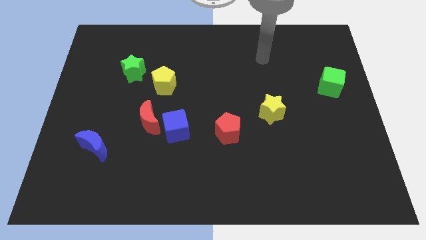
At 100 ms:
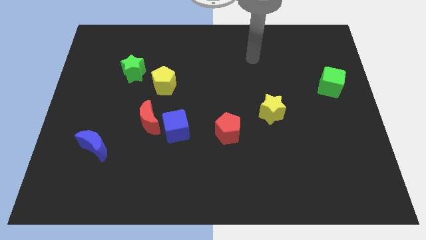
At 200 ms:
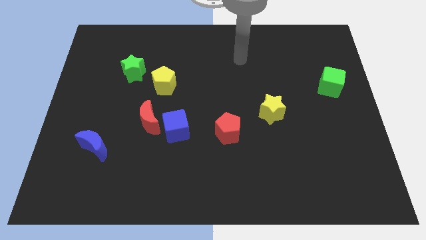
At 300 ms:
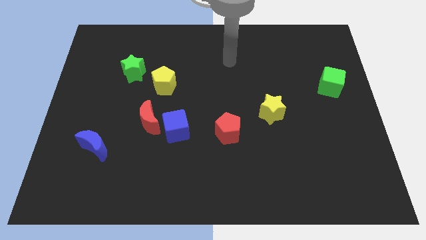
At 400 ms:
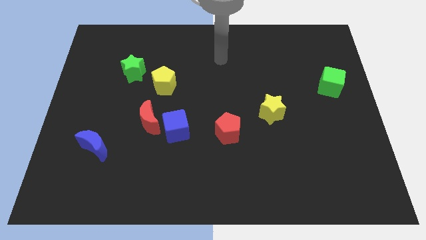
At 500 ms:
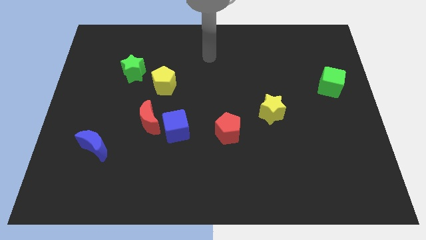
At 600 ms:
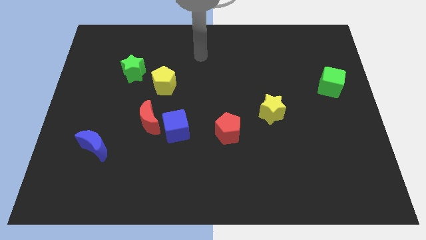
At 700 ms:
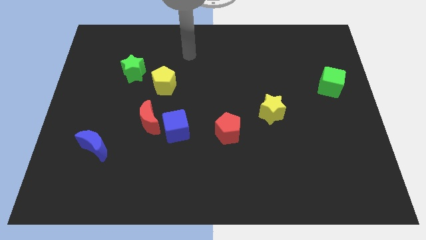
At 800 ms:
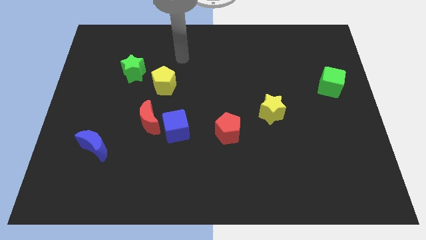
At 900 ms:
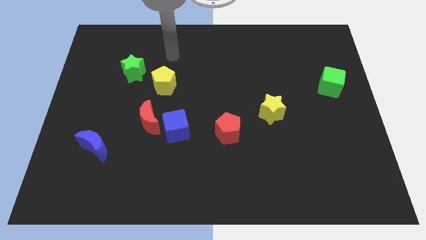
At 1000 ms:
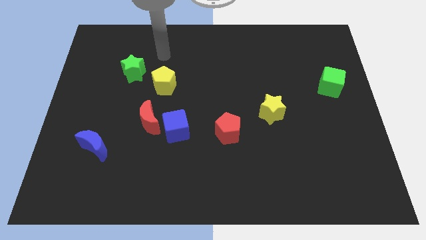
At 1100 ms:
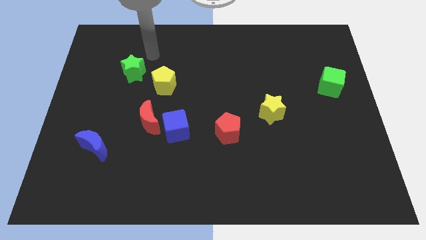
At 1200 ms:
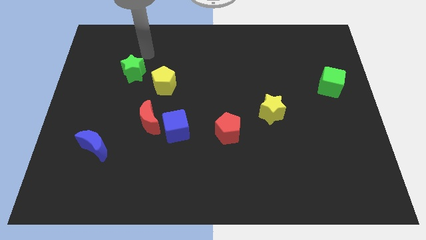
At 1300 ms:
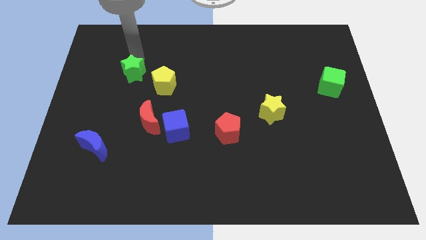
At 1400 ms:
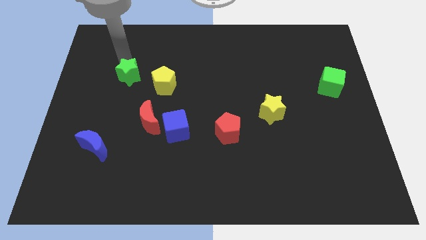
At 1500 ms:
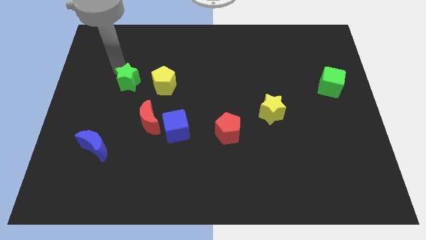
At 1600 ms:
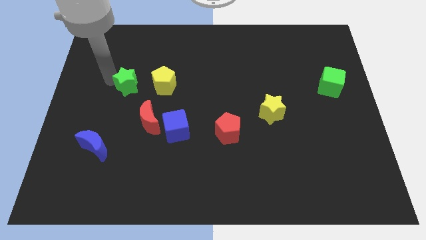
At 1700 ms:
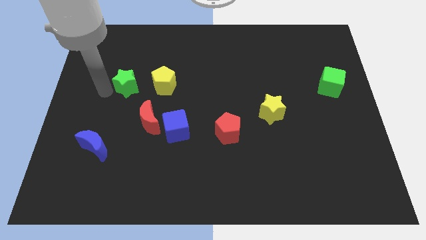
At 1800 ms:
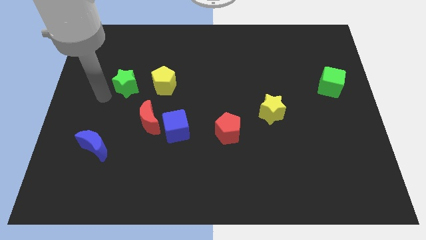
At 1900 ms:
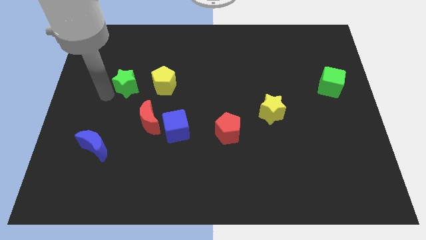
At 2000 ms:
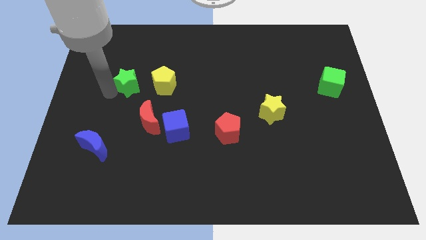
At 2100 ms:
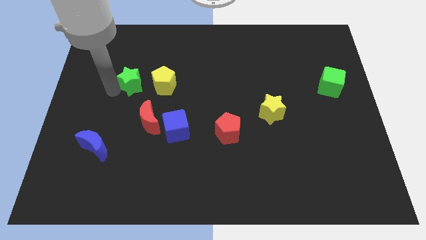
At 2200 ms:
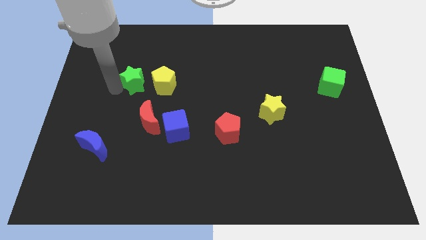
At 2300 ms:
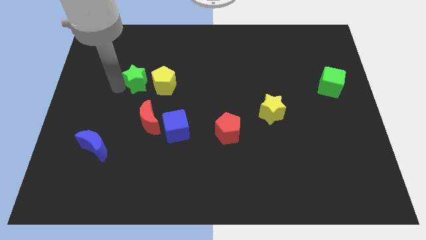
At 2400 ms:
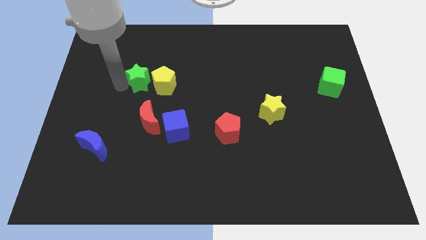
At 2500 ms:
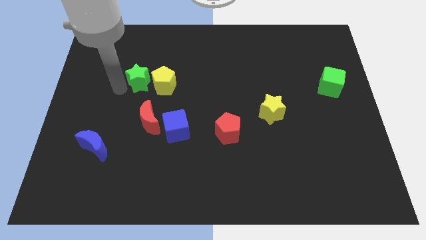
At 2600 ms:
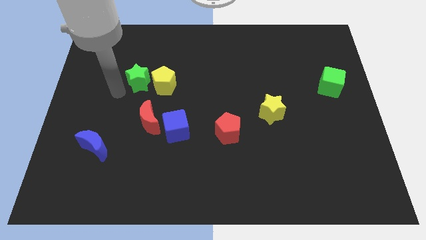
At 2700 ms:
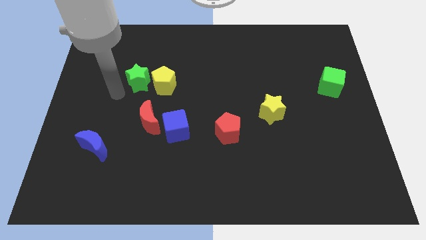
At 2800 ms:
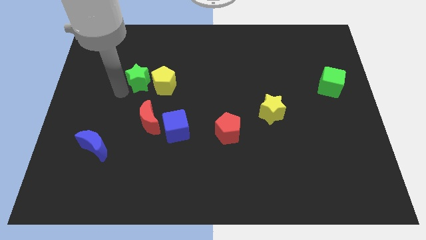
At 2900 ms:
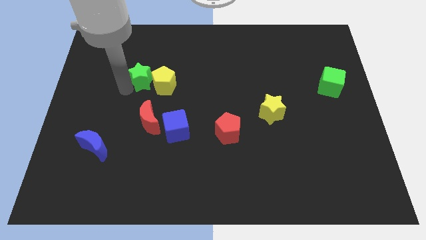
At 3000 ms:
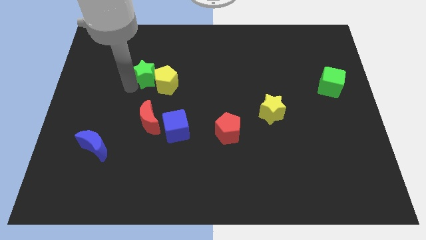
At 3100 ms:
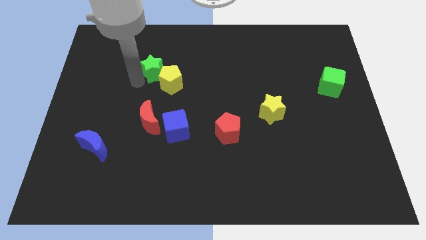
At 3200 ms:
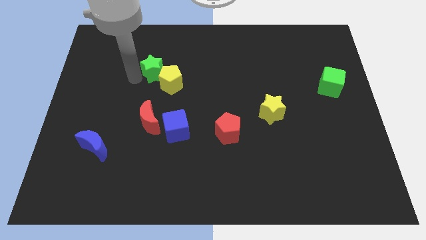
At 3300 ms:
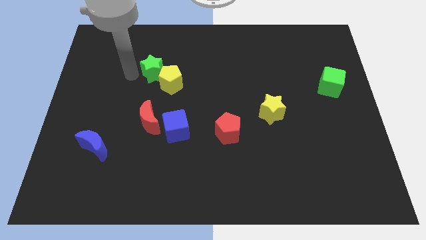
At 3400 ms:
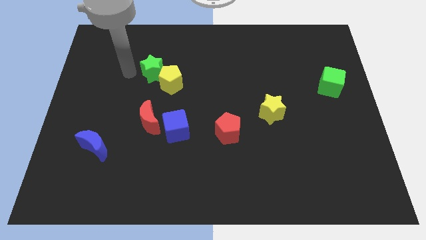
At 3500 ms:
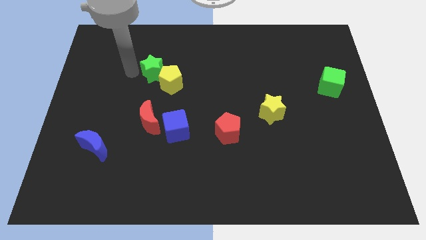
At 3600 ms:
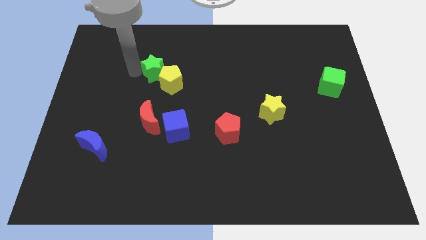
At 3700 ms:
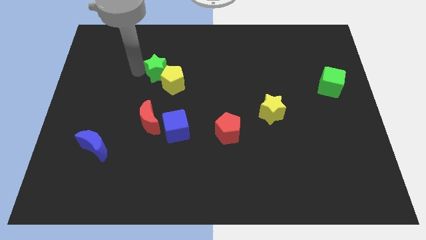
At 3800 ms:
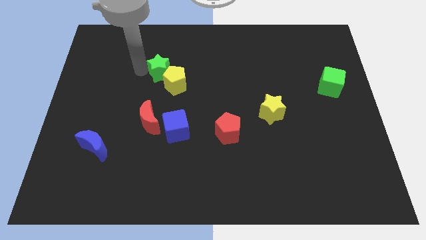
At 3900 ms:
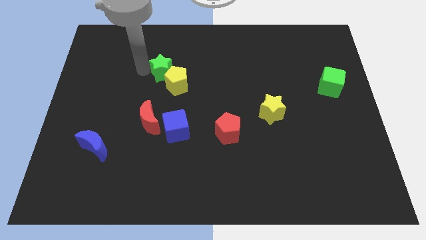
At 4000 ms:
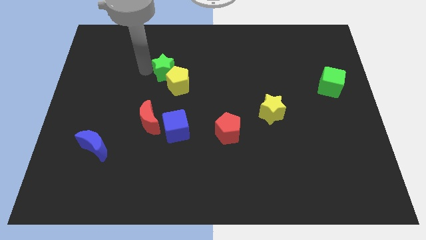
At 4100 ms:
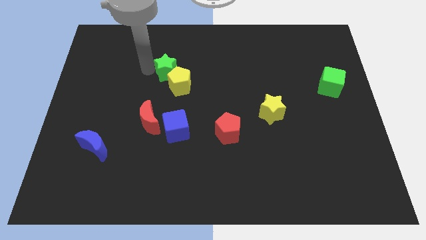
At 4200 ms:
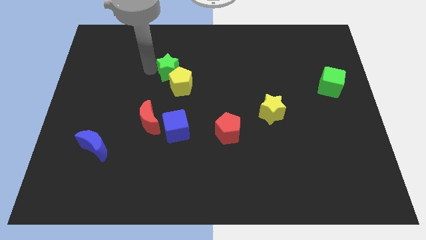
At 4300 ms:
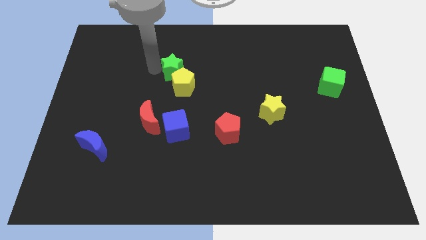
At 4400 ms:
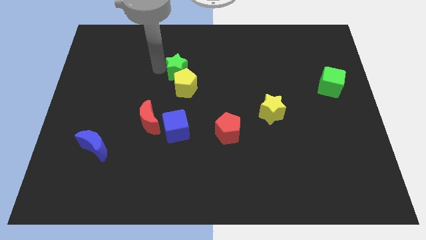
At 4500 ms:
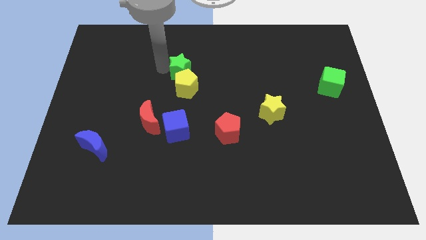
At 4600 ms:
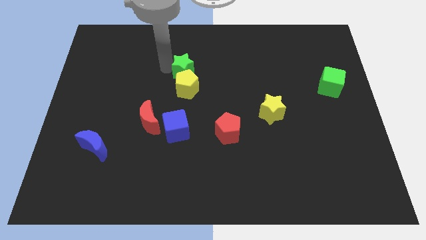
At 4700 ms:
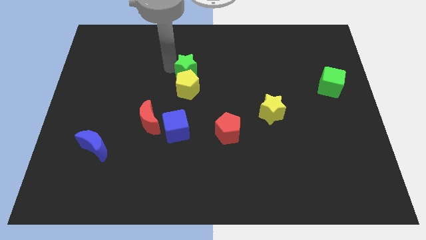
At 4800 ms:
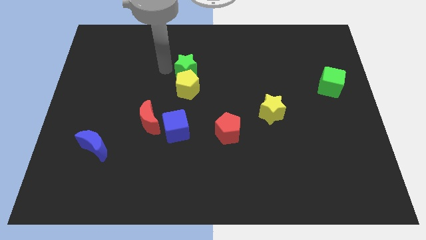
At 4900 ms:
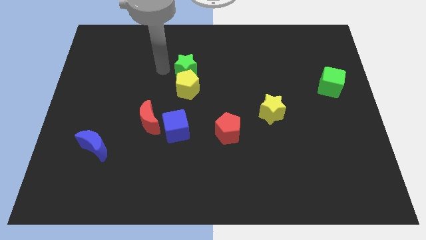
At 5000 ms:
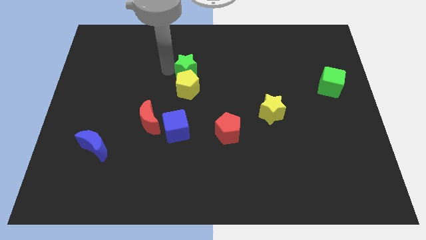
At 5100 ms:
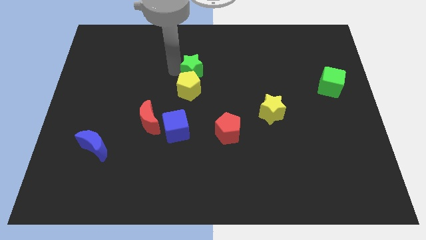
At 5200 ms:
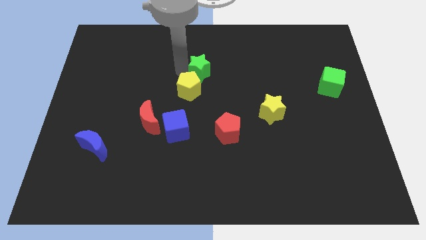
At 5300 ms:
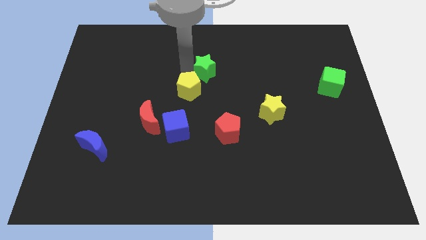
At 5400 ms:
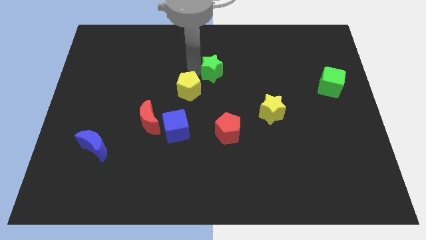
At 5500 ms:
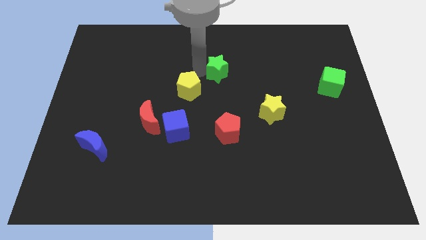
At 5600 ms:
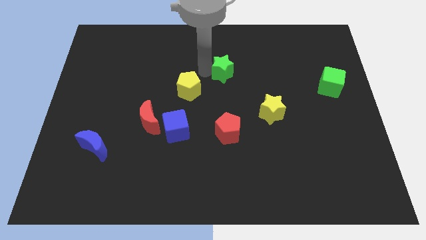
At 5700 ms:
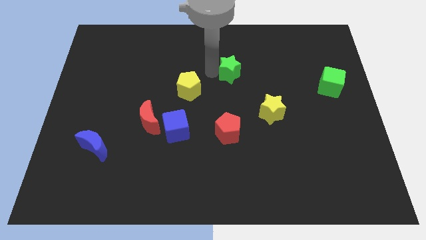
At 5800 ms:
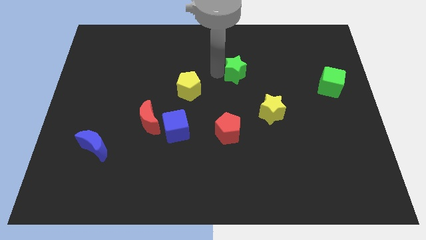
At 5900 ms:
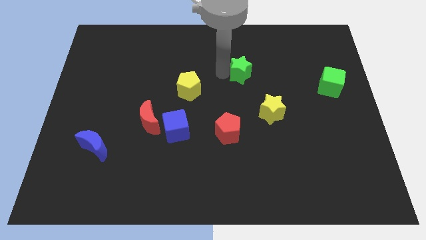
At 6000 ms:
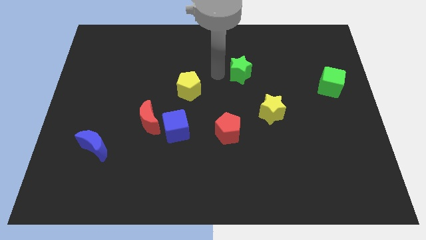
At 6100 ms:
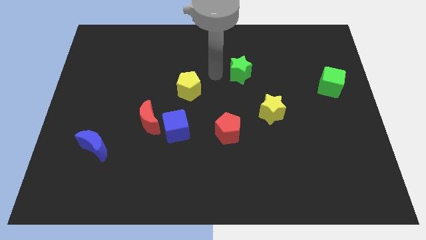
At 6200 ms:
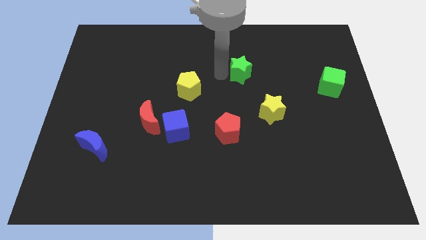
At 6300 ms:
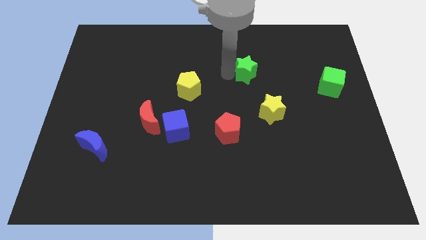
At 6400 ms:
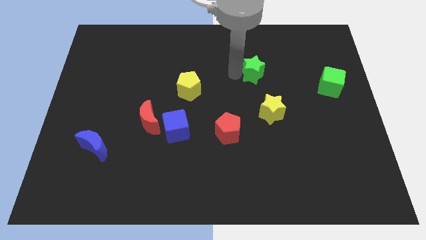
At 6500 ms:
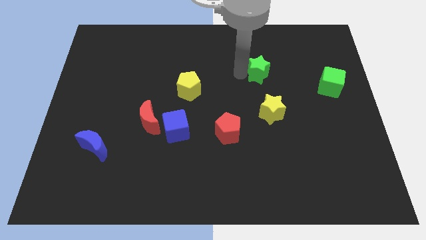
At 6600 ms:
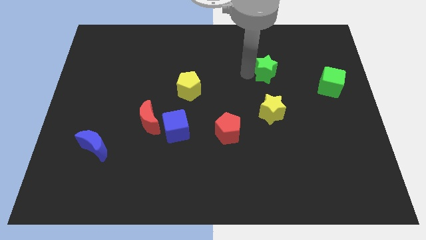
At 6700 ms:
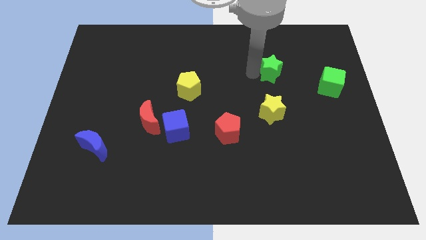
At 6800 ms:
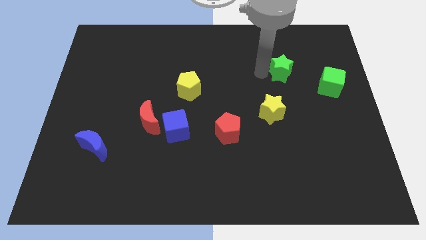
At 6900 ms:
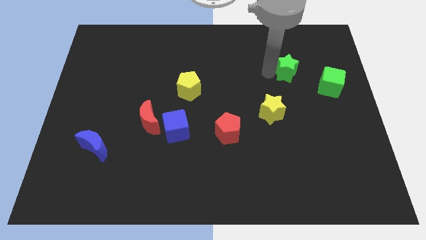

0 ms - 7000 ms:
put the green star to the top left of the green cube
